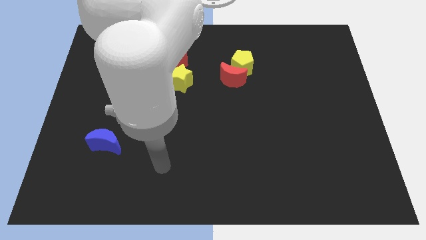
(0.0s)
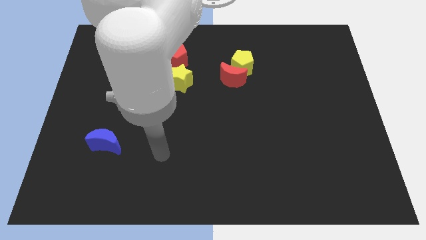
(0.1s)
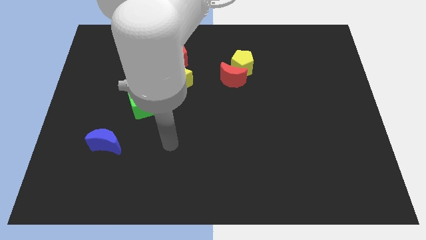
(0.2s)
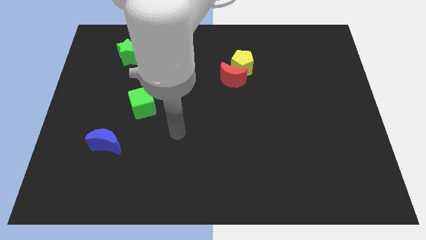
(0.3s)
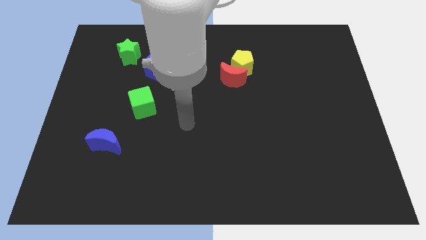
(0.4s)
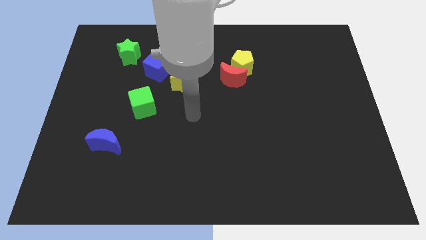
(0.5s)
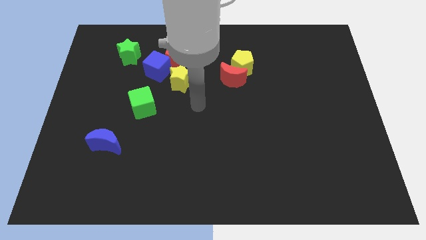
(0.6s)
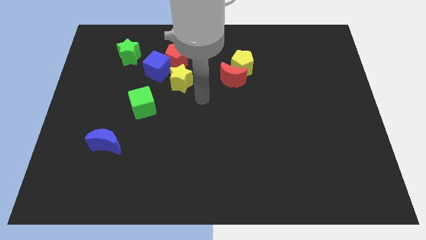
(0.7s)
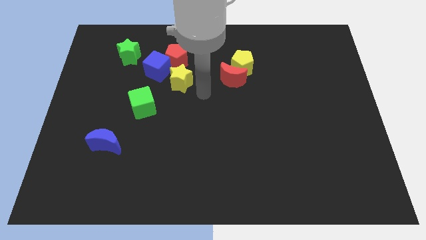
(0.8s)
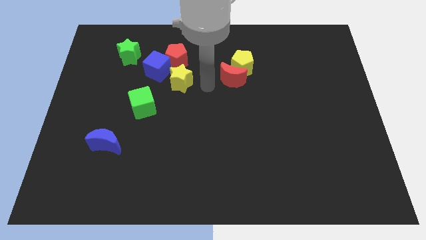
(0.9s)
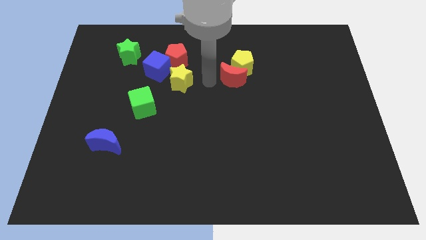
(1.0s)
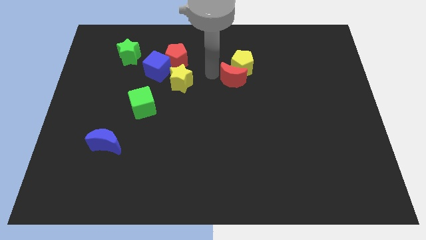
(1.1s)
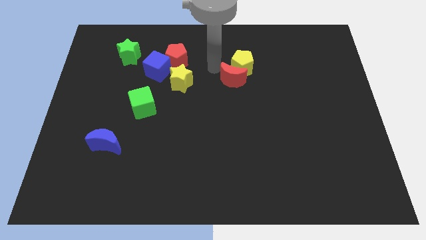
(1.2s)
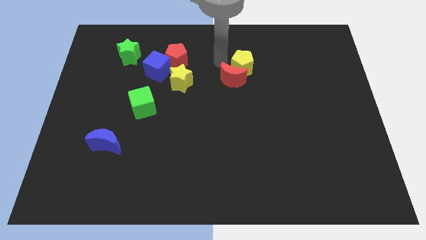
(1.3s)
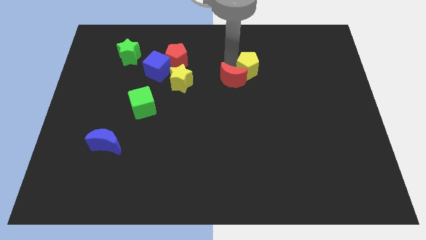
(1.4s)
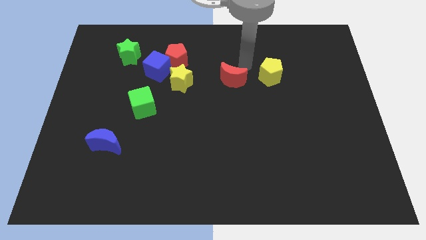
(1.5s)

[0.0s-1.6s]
pull the red moon apart from the yellow pentagon

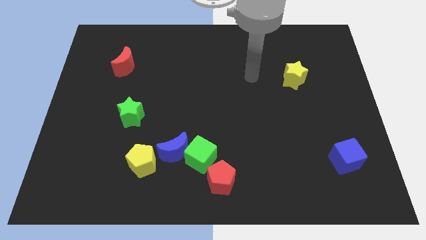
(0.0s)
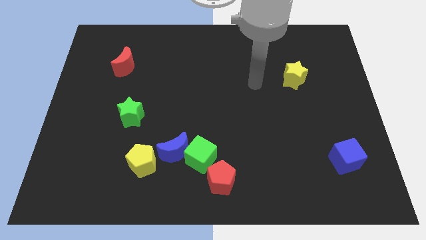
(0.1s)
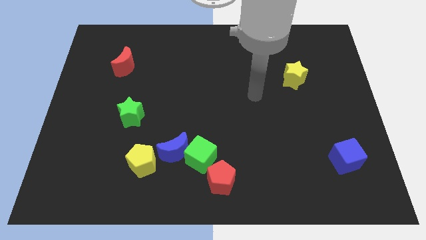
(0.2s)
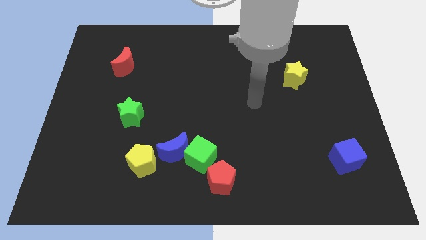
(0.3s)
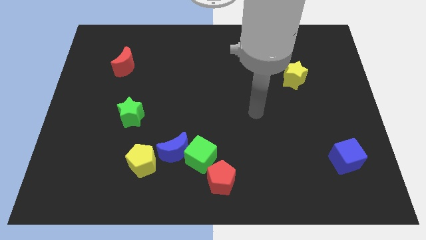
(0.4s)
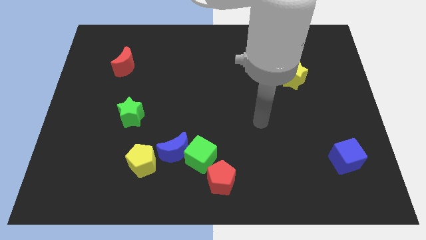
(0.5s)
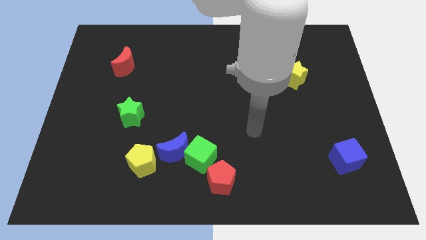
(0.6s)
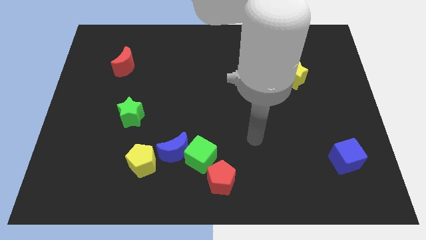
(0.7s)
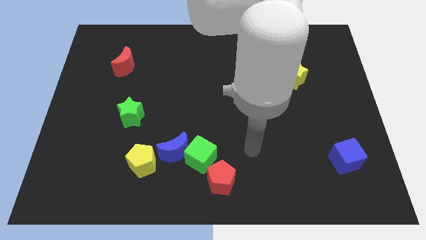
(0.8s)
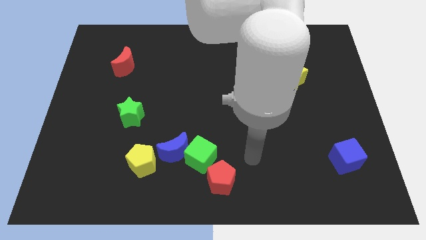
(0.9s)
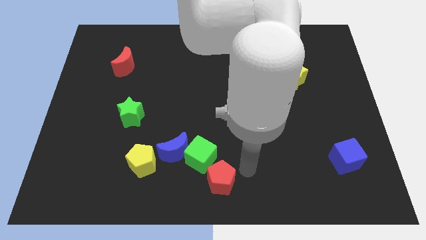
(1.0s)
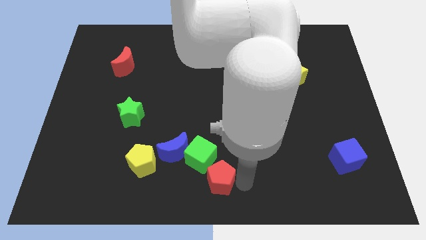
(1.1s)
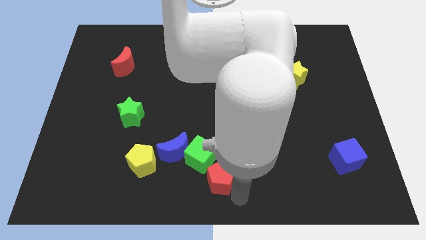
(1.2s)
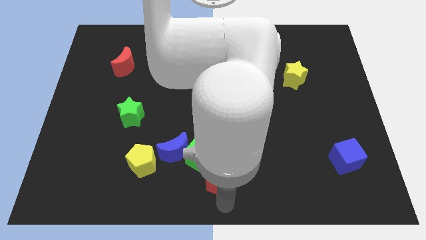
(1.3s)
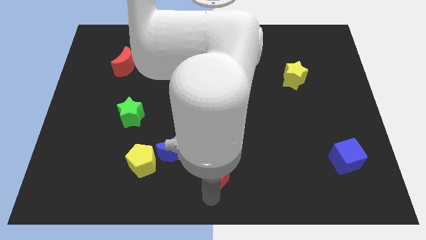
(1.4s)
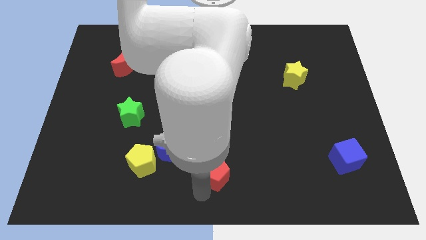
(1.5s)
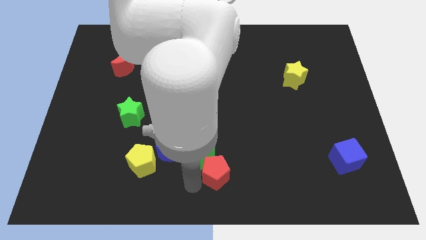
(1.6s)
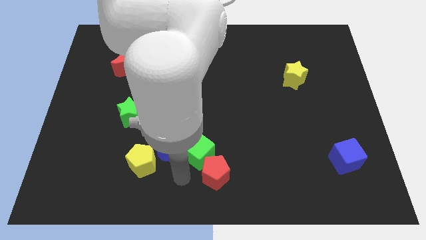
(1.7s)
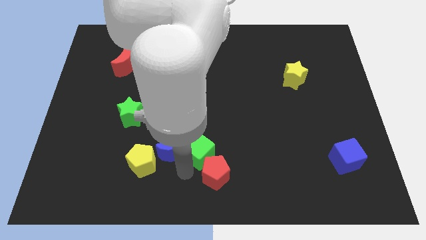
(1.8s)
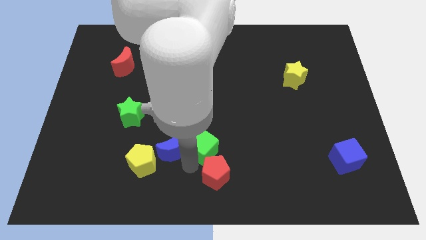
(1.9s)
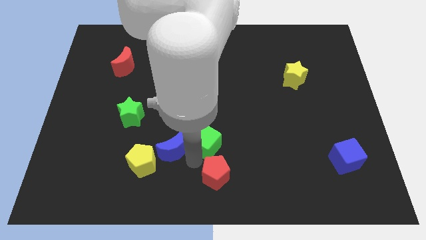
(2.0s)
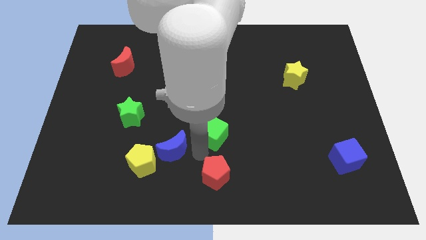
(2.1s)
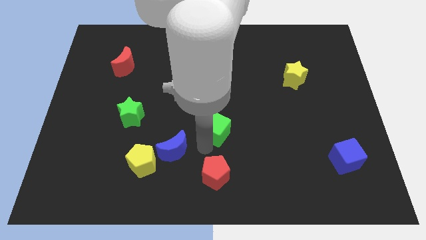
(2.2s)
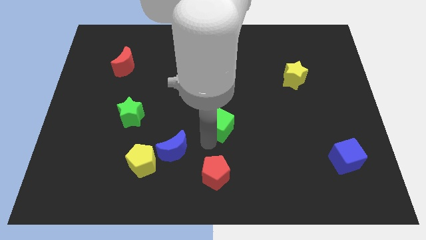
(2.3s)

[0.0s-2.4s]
separate the green cube from the blue moon and red pentagon

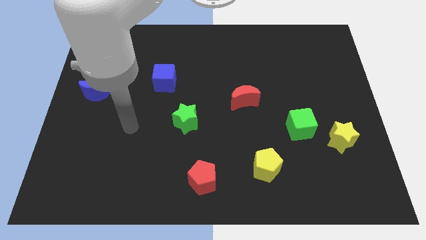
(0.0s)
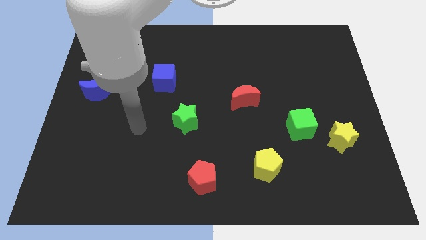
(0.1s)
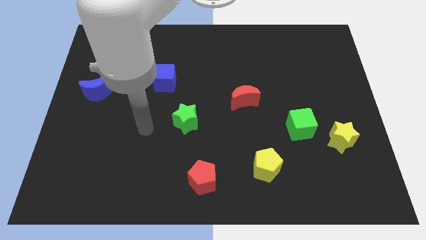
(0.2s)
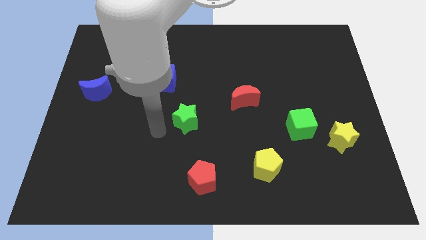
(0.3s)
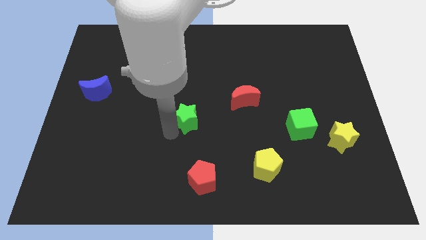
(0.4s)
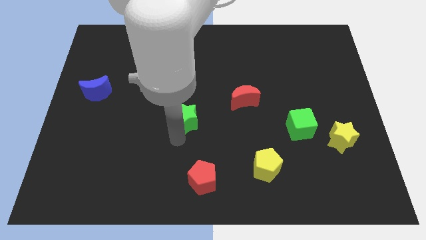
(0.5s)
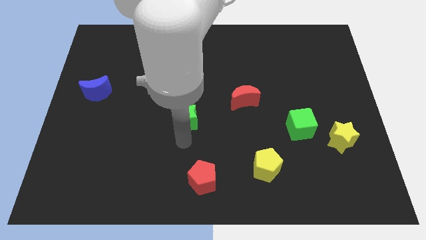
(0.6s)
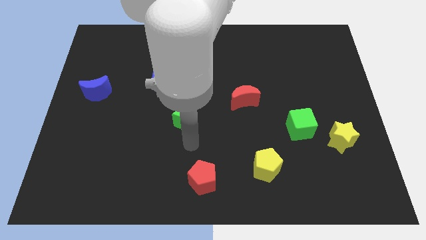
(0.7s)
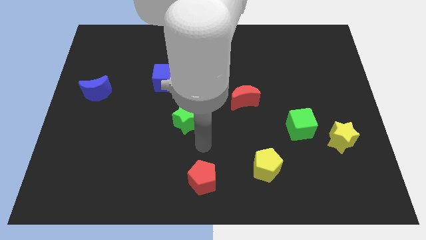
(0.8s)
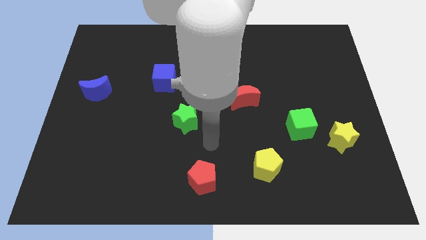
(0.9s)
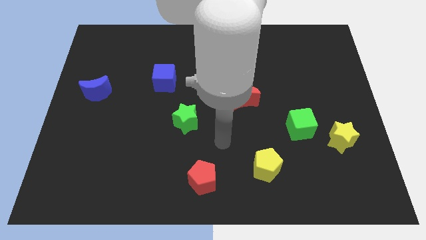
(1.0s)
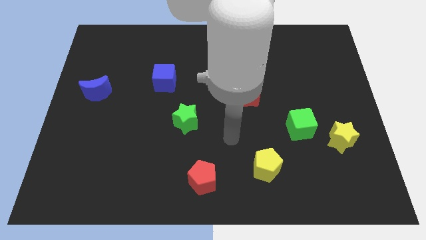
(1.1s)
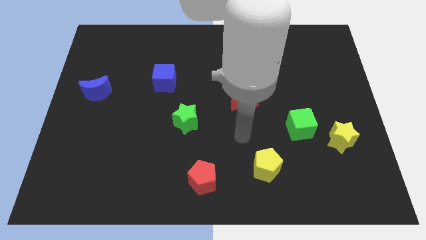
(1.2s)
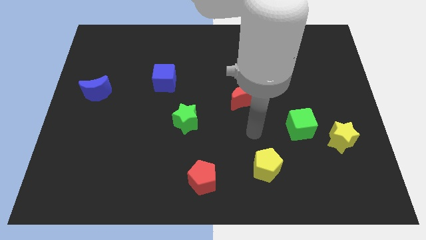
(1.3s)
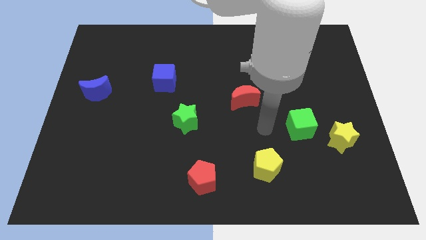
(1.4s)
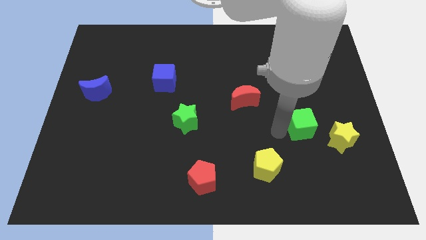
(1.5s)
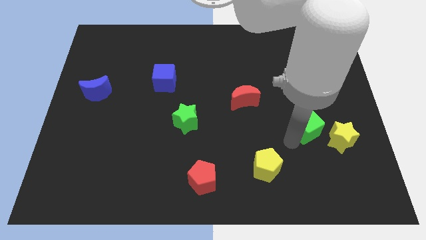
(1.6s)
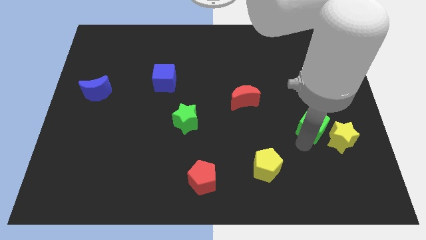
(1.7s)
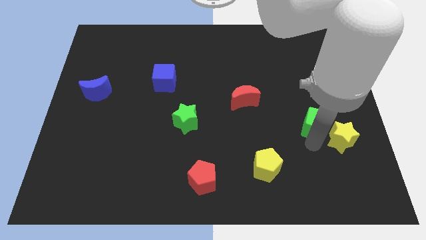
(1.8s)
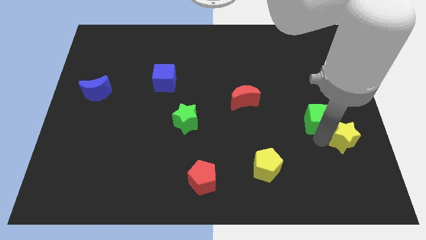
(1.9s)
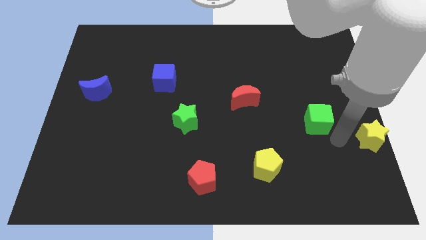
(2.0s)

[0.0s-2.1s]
move the green cube away from the yellow star

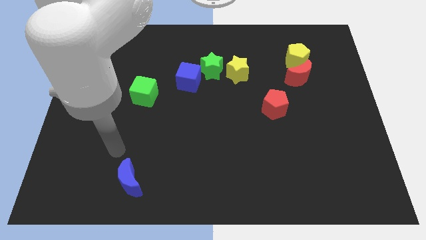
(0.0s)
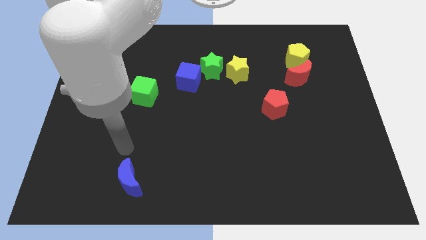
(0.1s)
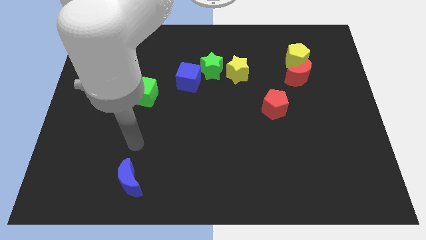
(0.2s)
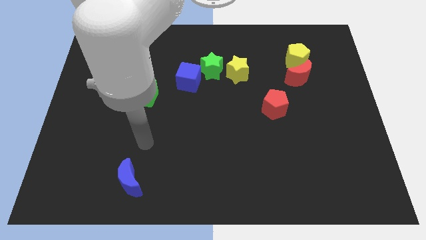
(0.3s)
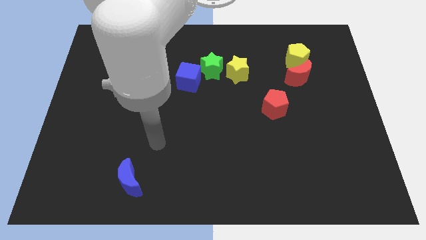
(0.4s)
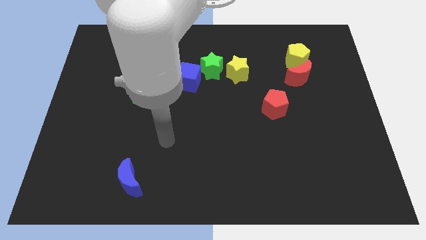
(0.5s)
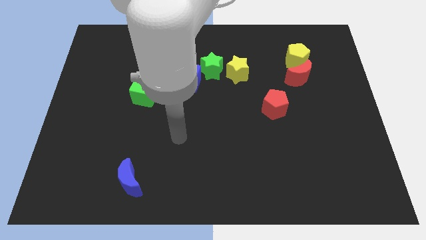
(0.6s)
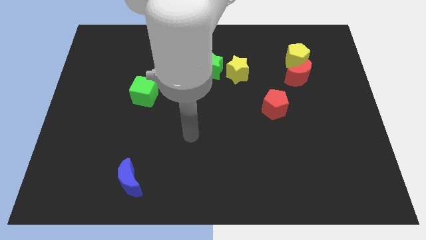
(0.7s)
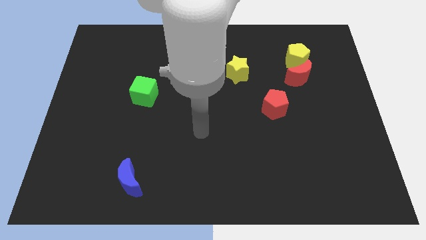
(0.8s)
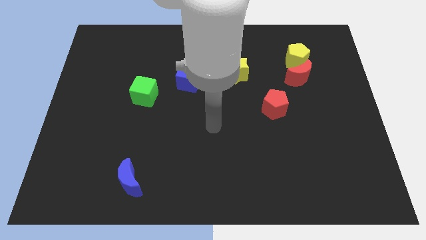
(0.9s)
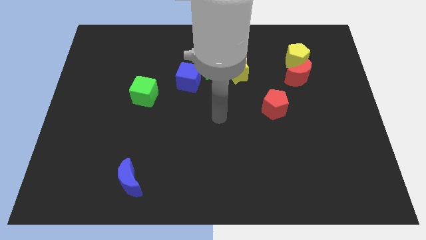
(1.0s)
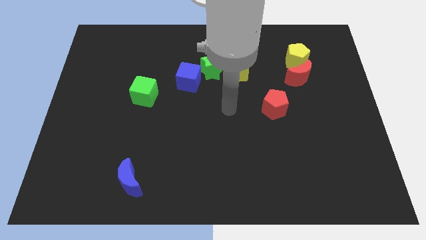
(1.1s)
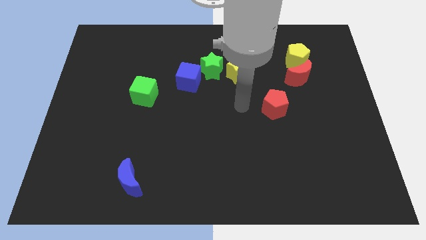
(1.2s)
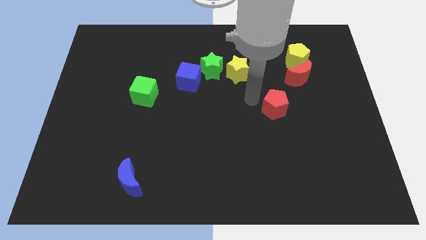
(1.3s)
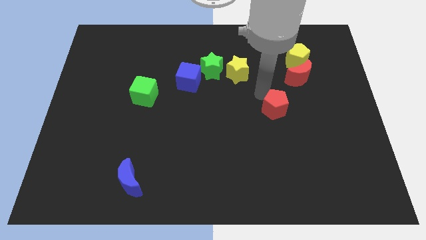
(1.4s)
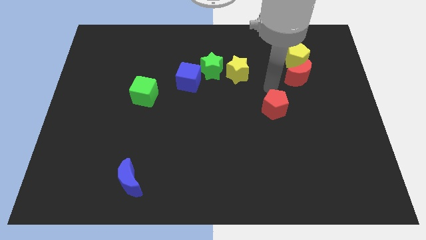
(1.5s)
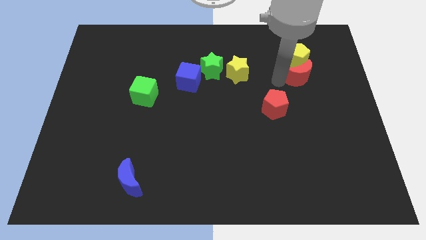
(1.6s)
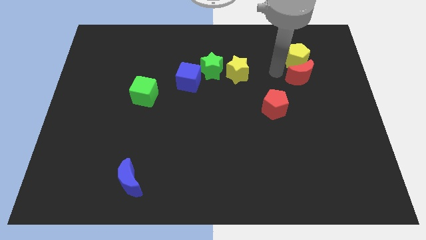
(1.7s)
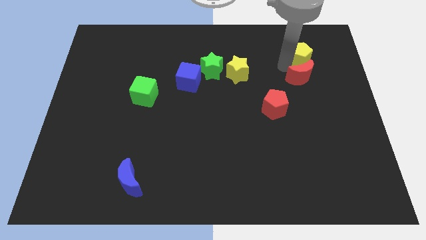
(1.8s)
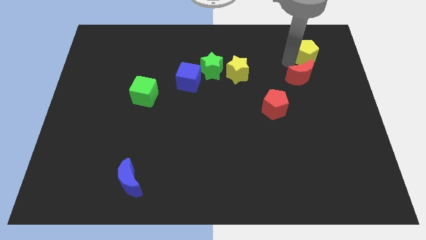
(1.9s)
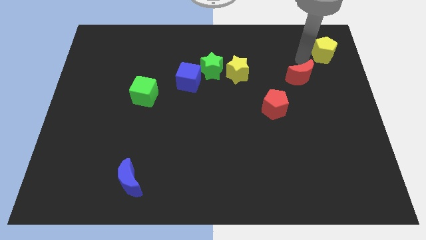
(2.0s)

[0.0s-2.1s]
move the red moon away from the yellow pentagon

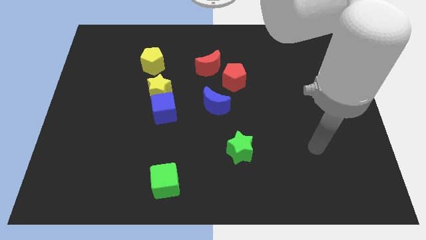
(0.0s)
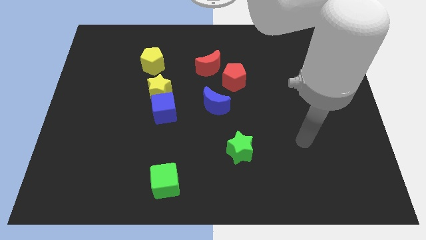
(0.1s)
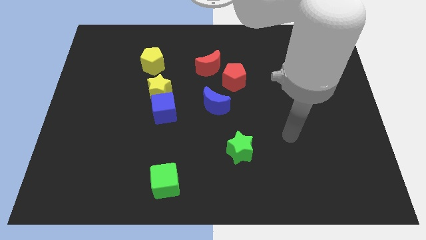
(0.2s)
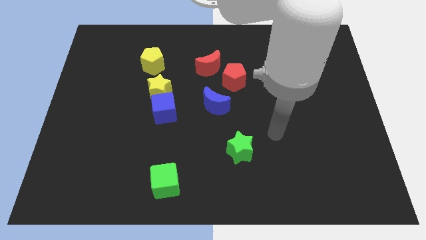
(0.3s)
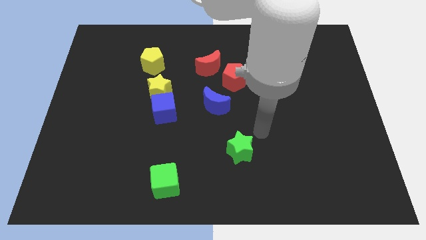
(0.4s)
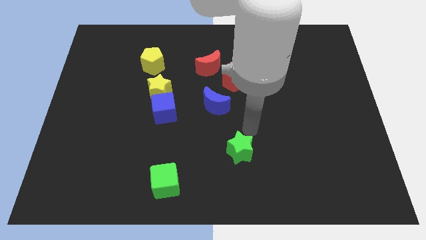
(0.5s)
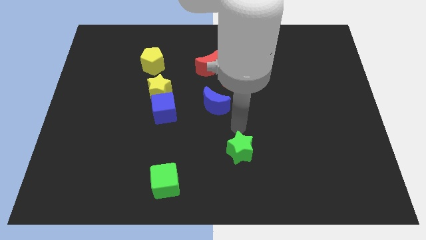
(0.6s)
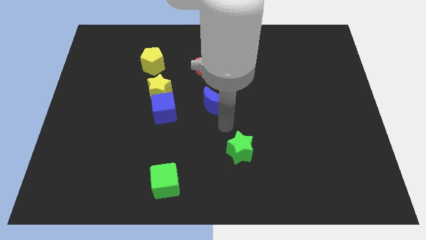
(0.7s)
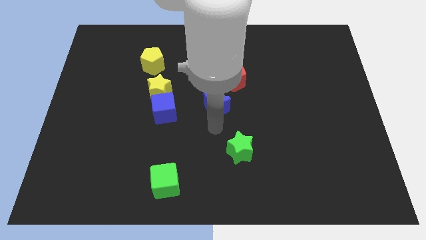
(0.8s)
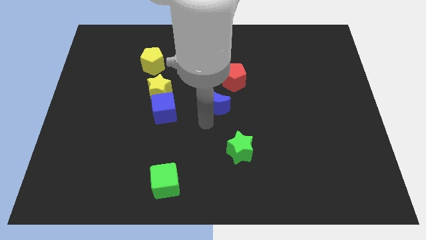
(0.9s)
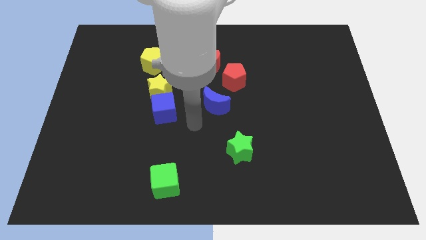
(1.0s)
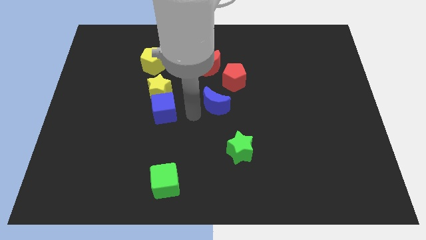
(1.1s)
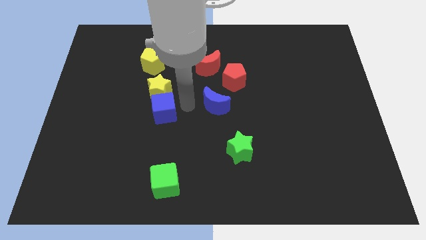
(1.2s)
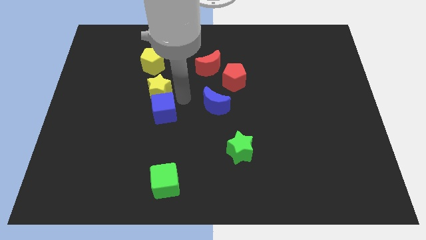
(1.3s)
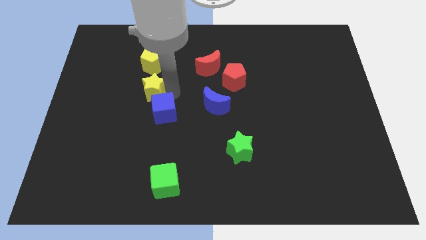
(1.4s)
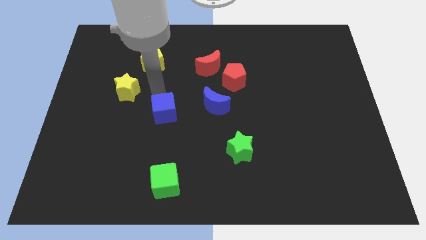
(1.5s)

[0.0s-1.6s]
move the blue cube away from the yellow star
